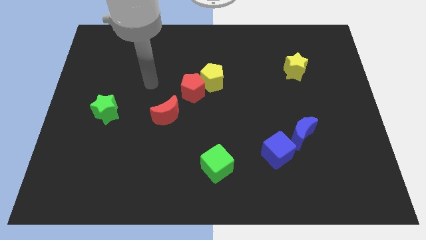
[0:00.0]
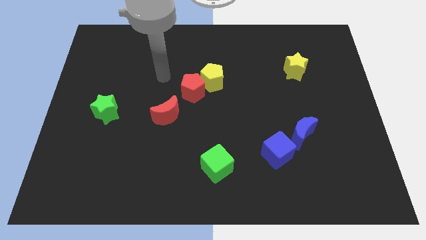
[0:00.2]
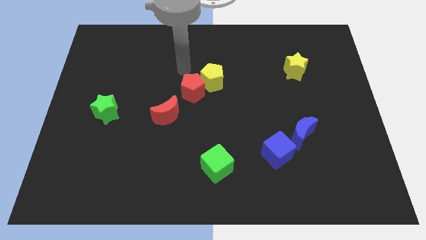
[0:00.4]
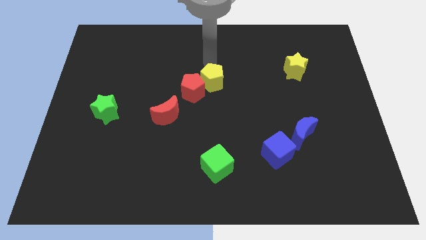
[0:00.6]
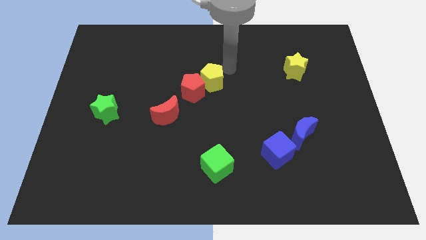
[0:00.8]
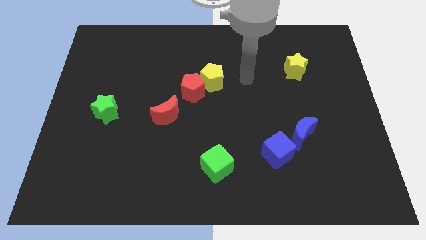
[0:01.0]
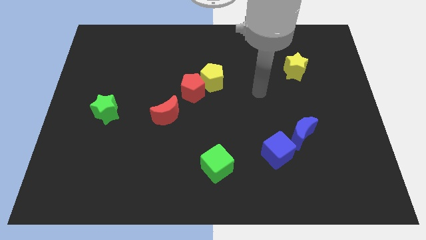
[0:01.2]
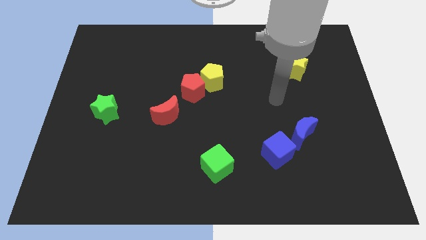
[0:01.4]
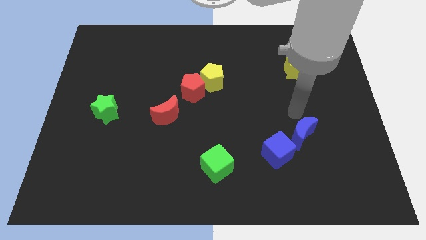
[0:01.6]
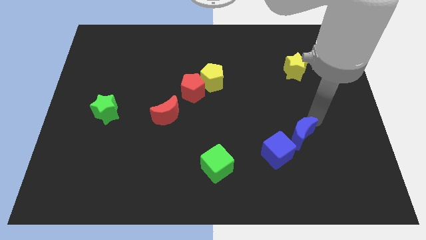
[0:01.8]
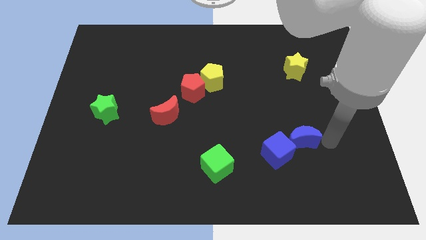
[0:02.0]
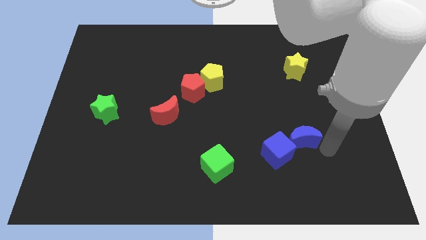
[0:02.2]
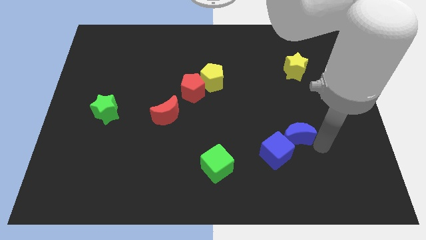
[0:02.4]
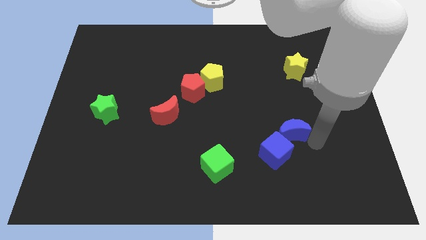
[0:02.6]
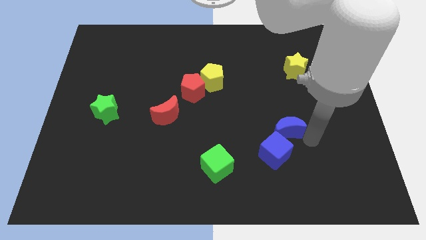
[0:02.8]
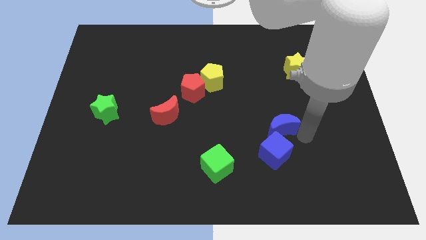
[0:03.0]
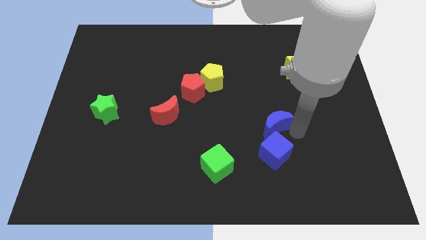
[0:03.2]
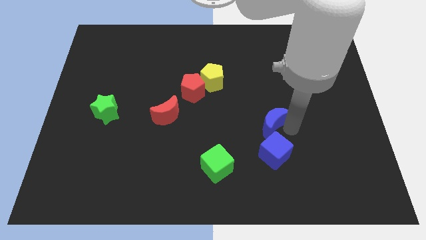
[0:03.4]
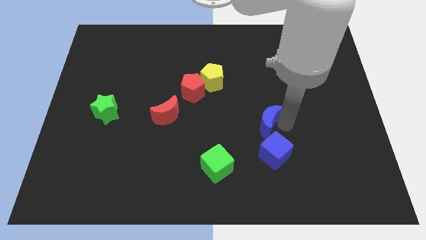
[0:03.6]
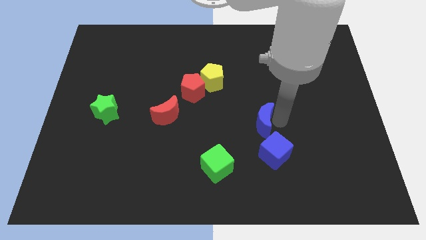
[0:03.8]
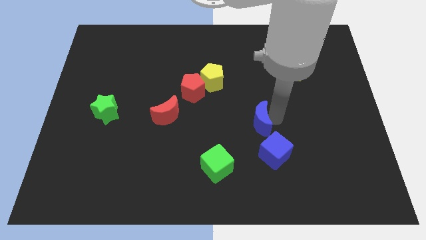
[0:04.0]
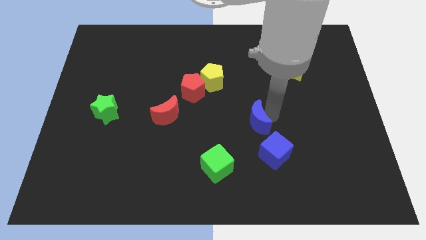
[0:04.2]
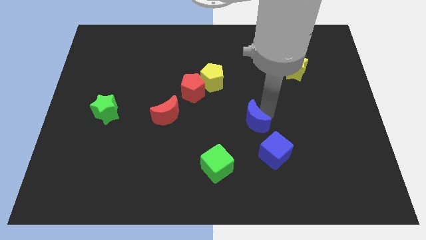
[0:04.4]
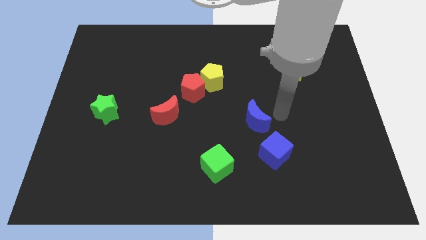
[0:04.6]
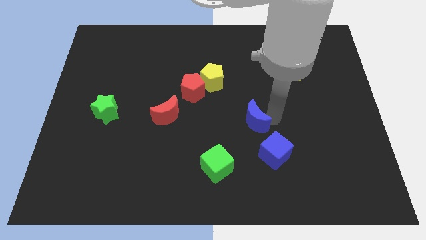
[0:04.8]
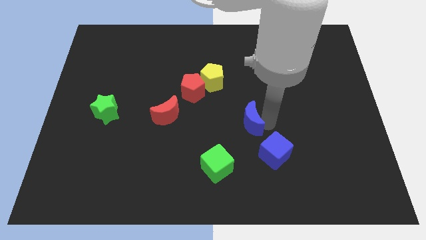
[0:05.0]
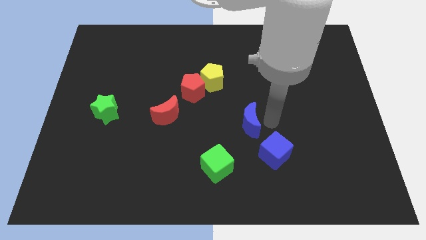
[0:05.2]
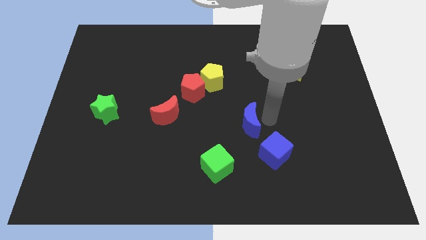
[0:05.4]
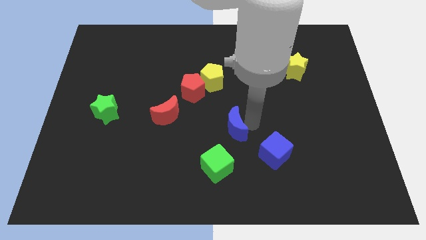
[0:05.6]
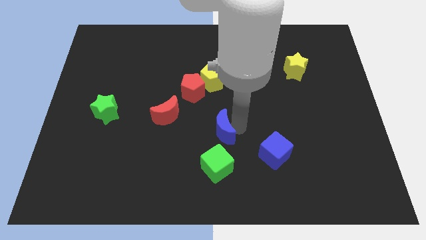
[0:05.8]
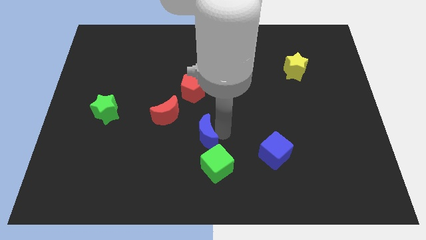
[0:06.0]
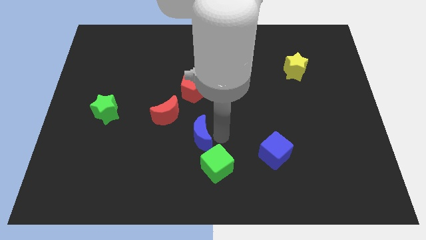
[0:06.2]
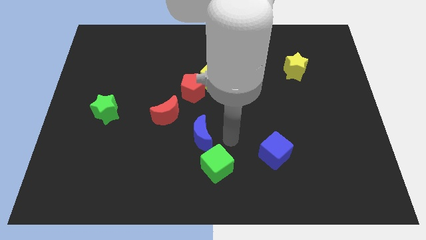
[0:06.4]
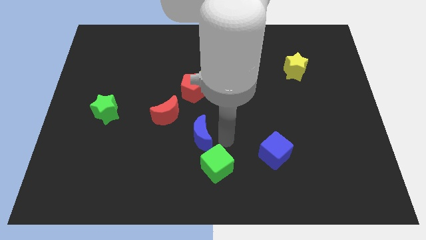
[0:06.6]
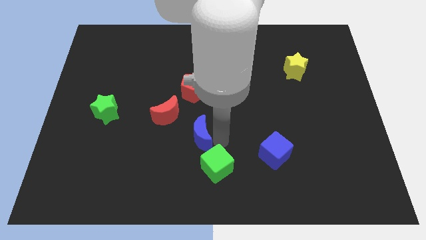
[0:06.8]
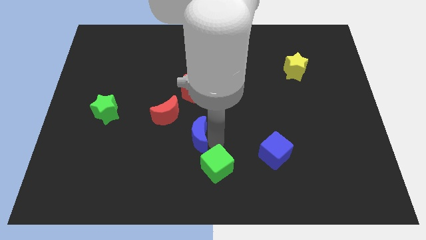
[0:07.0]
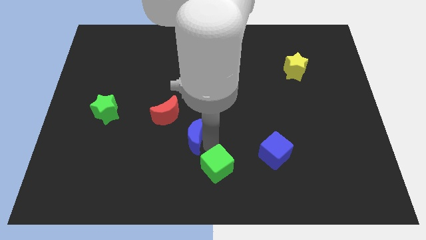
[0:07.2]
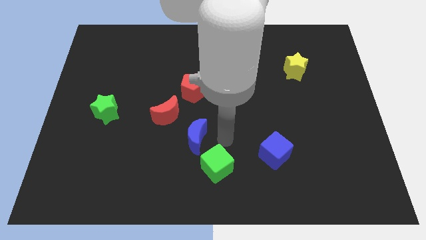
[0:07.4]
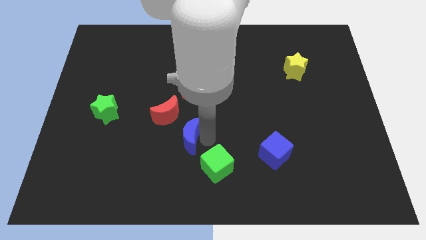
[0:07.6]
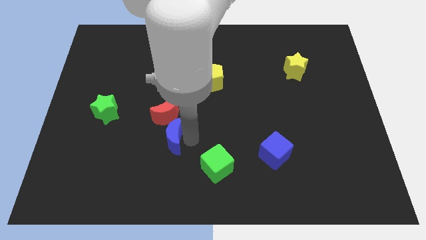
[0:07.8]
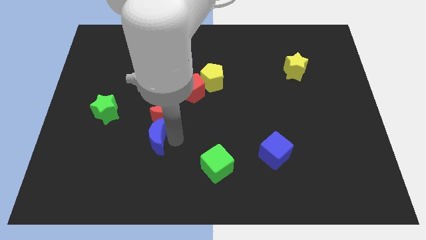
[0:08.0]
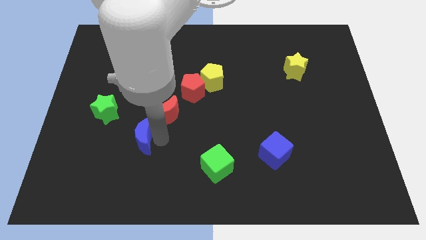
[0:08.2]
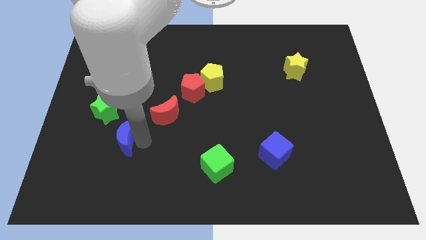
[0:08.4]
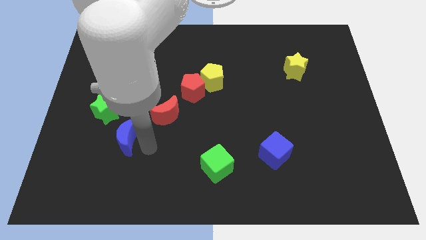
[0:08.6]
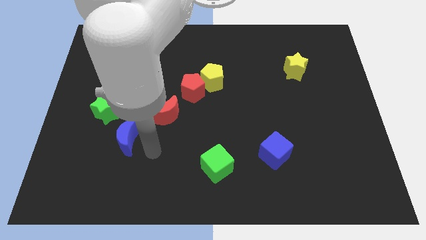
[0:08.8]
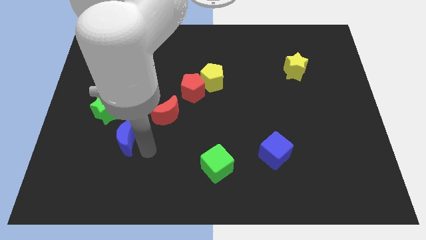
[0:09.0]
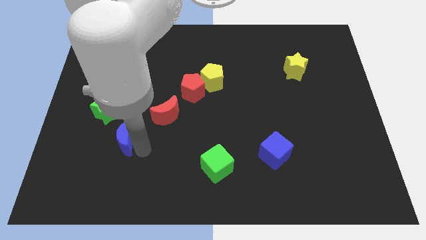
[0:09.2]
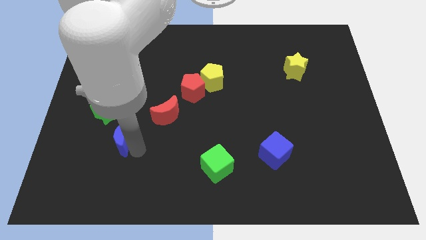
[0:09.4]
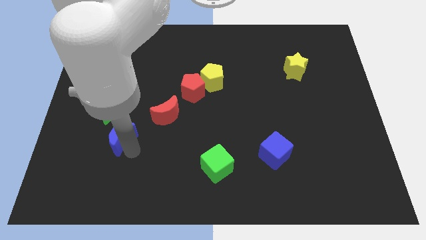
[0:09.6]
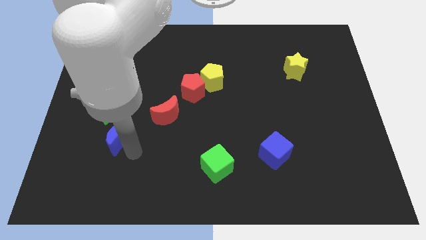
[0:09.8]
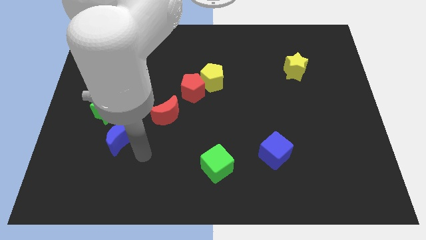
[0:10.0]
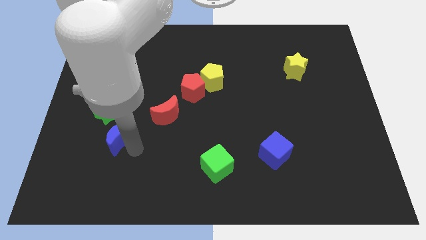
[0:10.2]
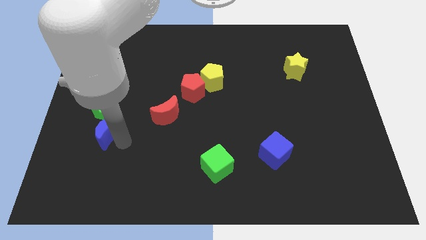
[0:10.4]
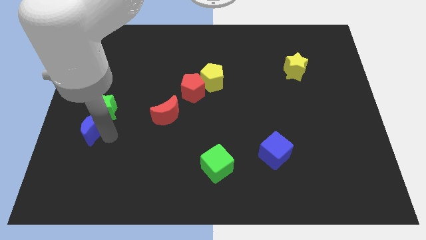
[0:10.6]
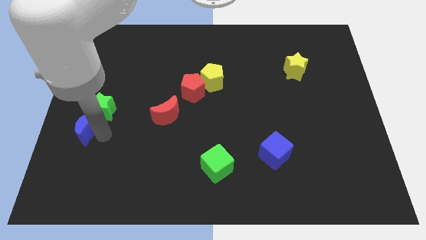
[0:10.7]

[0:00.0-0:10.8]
push the blue moon to the center left
